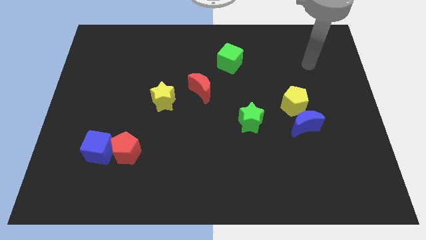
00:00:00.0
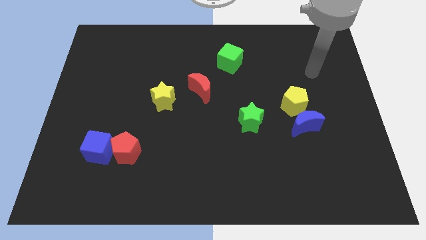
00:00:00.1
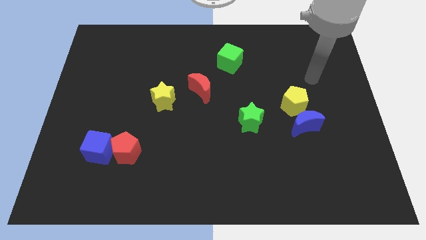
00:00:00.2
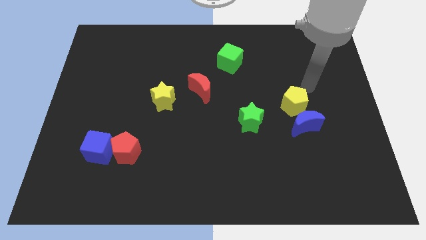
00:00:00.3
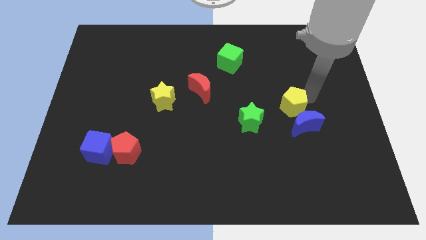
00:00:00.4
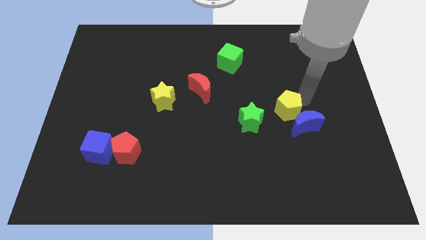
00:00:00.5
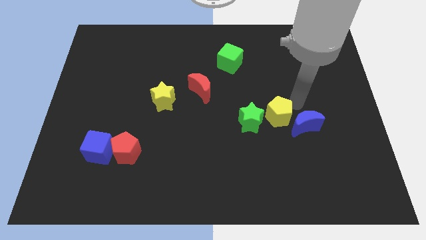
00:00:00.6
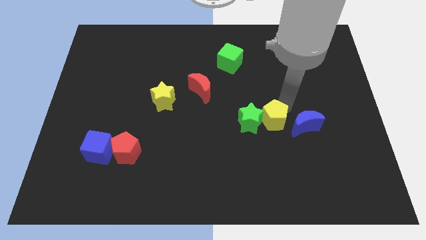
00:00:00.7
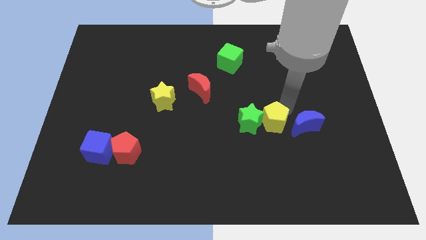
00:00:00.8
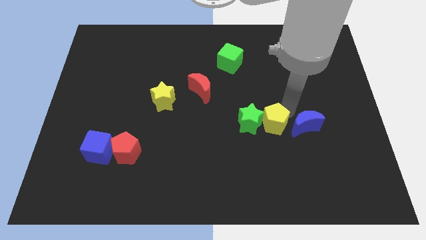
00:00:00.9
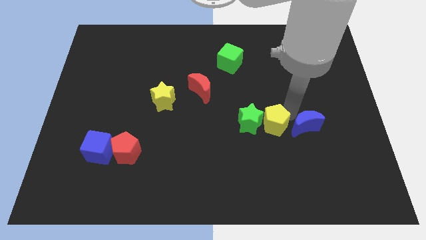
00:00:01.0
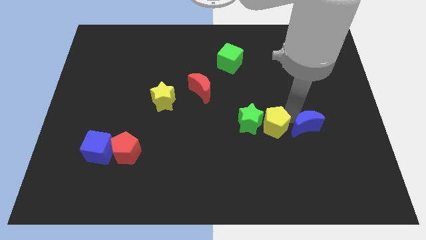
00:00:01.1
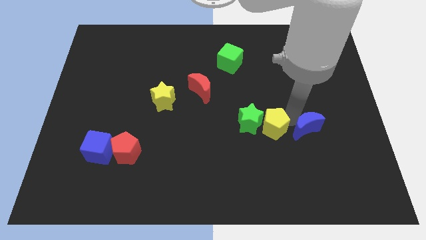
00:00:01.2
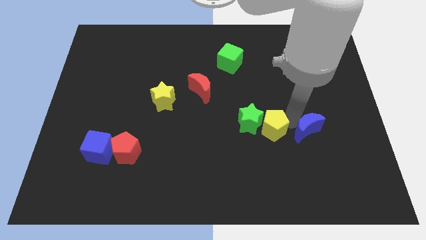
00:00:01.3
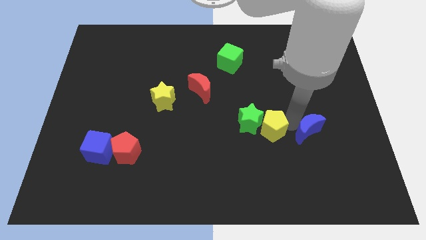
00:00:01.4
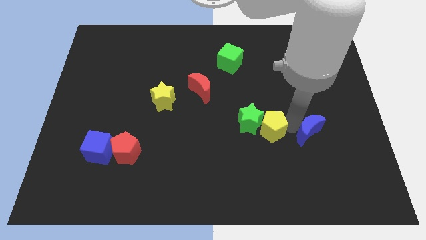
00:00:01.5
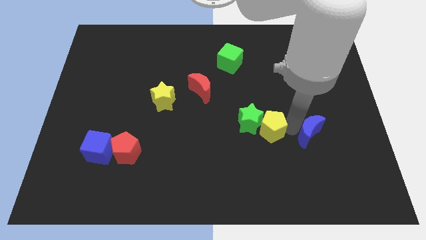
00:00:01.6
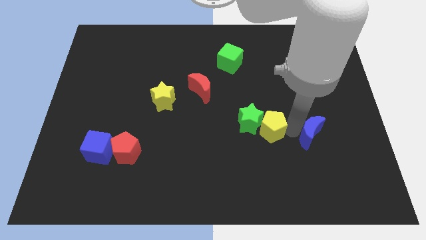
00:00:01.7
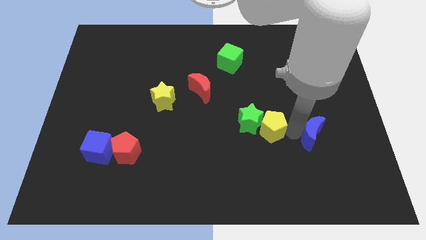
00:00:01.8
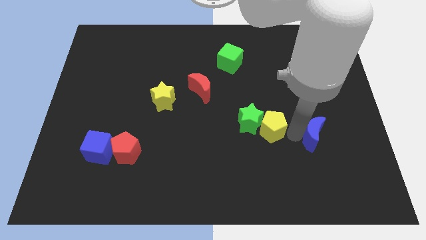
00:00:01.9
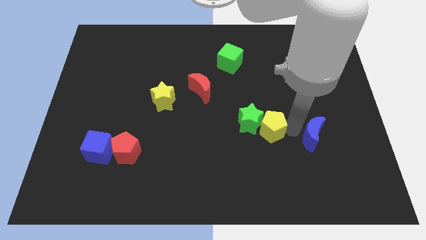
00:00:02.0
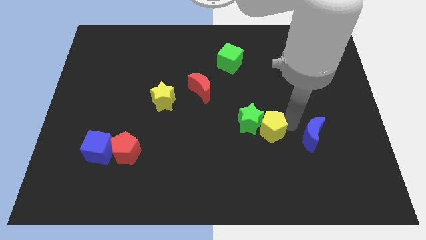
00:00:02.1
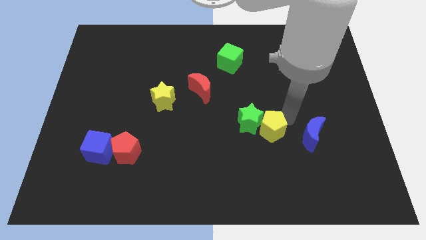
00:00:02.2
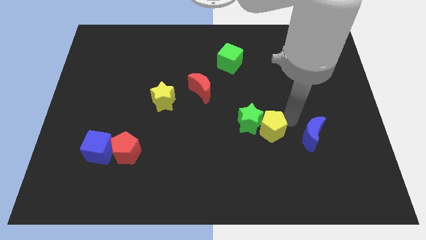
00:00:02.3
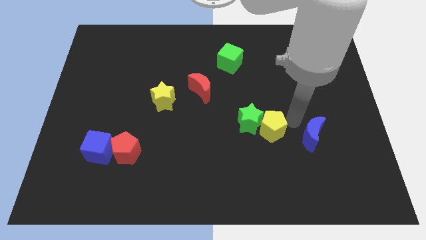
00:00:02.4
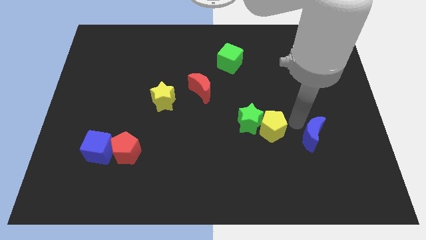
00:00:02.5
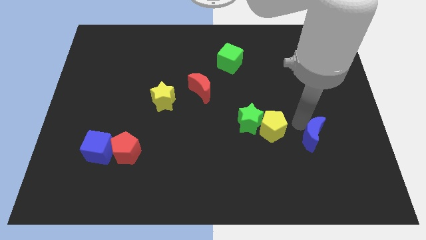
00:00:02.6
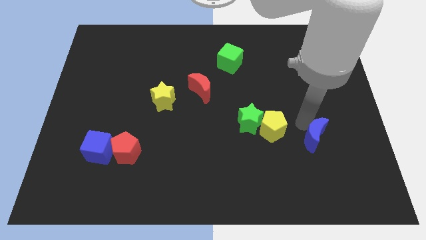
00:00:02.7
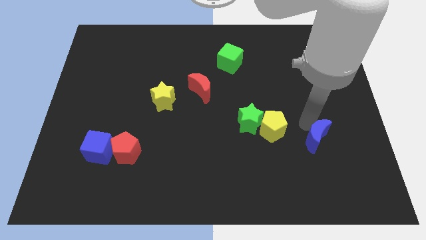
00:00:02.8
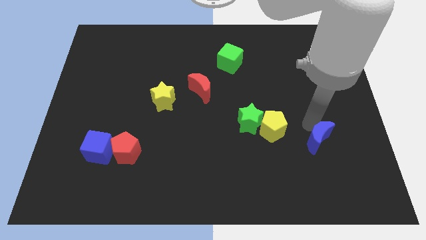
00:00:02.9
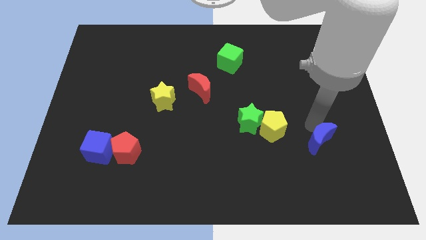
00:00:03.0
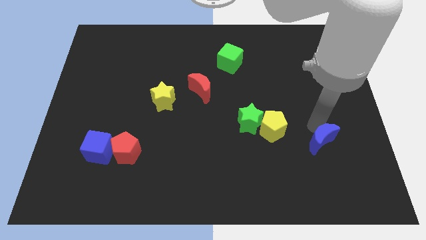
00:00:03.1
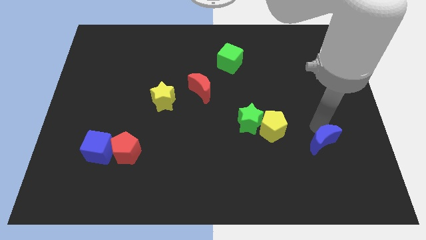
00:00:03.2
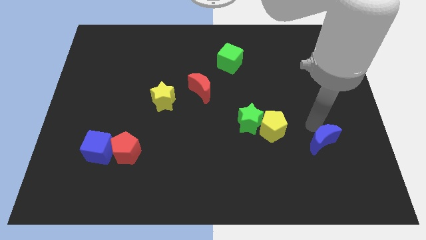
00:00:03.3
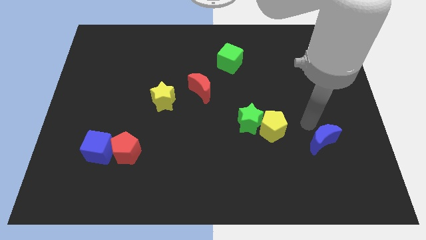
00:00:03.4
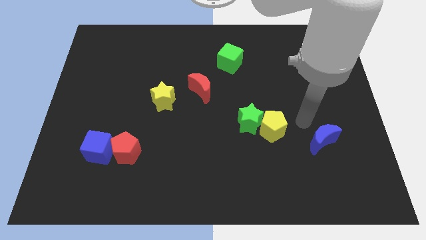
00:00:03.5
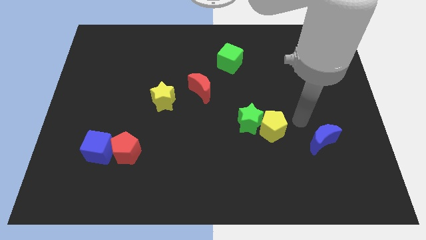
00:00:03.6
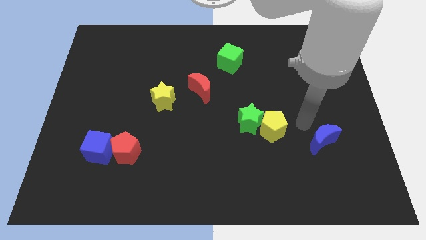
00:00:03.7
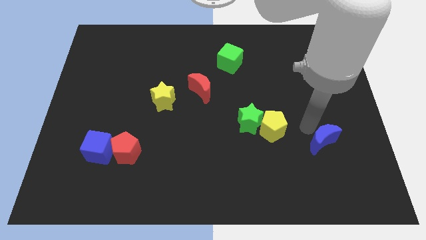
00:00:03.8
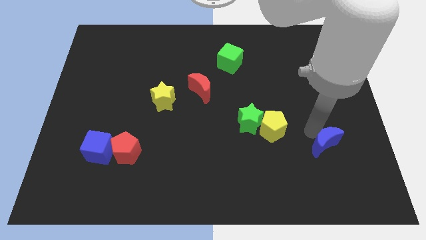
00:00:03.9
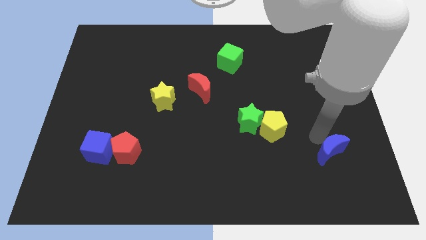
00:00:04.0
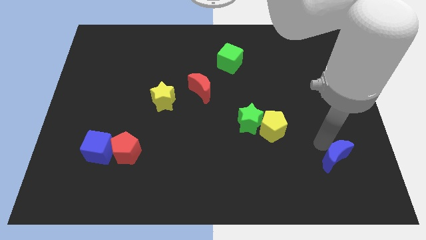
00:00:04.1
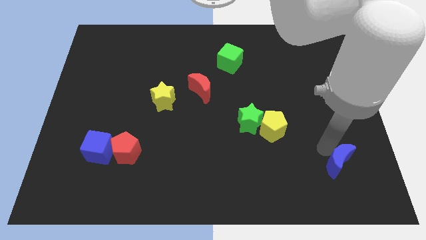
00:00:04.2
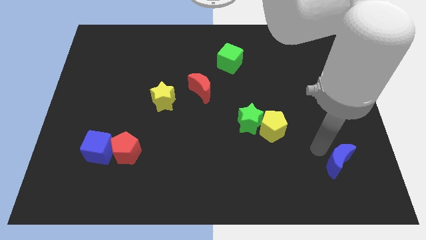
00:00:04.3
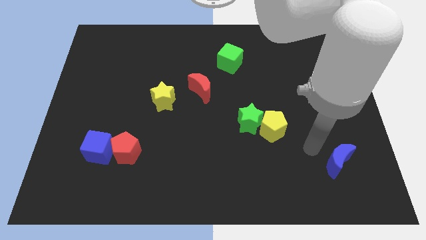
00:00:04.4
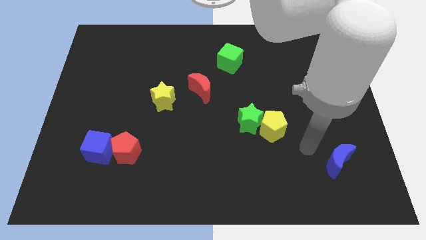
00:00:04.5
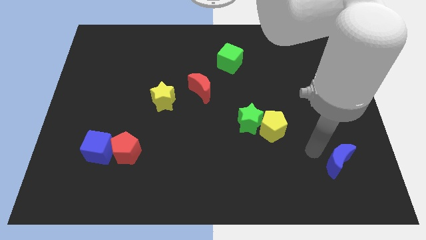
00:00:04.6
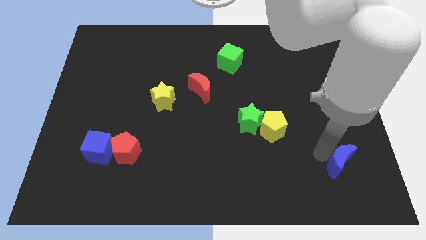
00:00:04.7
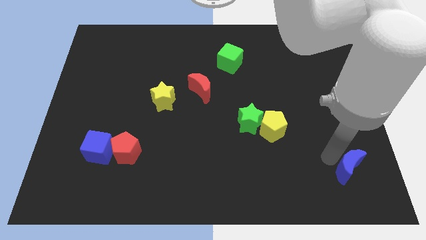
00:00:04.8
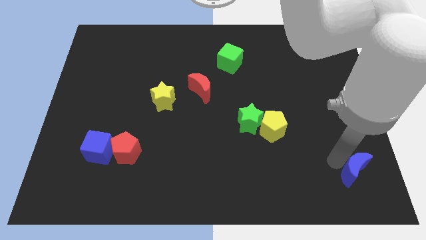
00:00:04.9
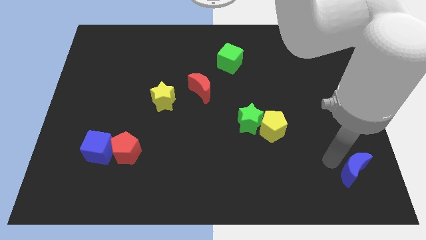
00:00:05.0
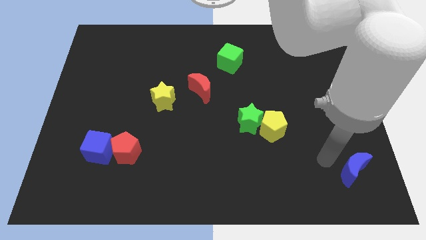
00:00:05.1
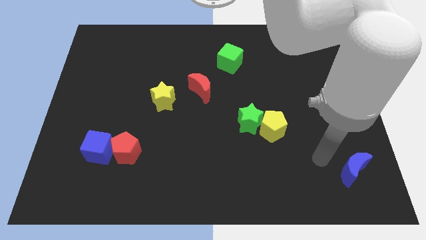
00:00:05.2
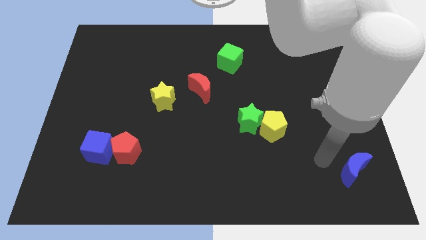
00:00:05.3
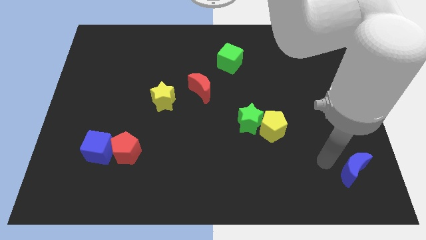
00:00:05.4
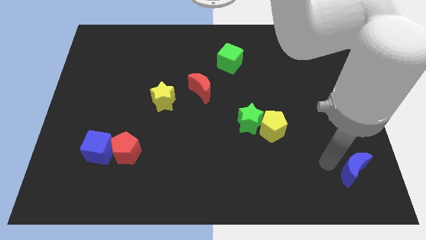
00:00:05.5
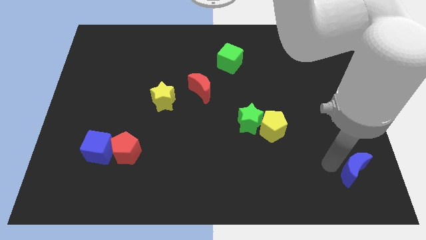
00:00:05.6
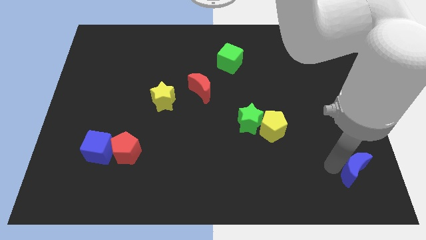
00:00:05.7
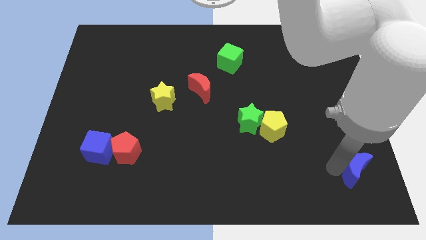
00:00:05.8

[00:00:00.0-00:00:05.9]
slide the blue moon to the bottom right of the board
